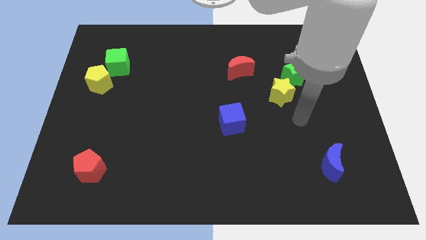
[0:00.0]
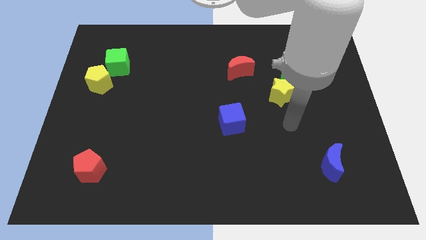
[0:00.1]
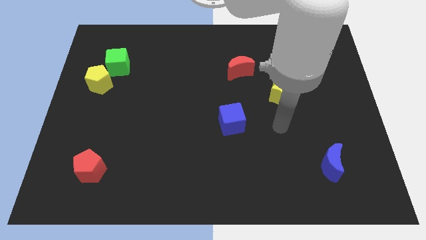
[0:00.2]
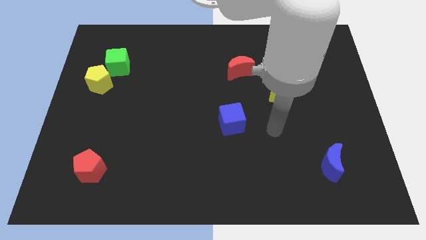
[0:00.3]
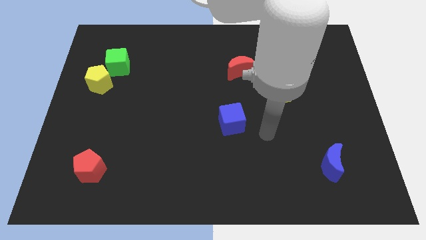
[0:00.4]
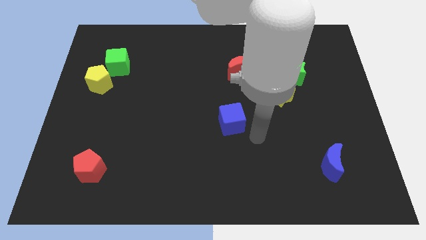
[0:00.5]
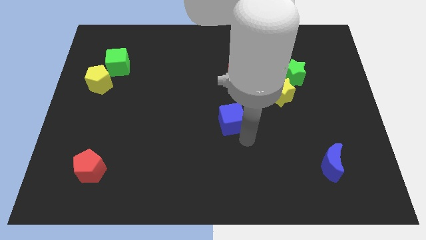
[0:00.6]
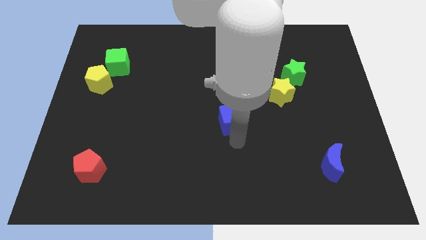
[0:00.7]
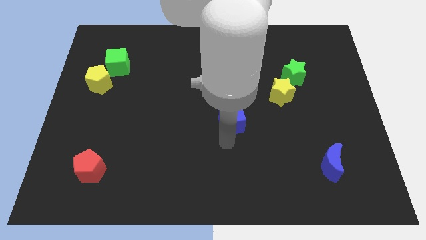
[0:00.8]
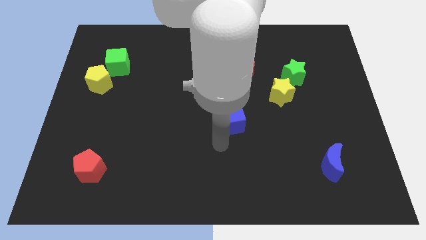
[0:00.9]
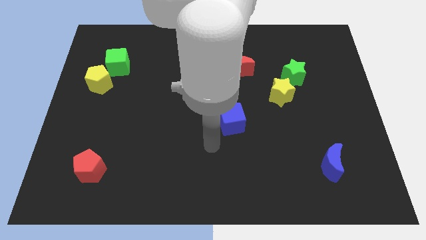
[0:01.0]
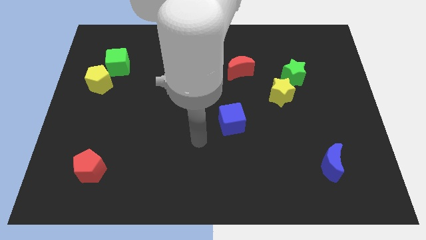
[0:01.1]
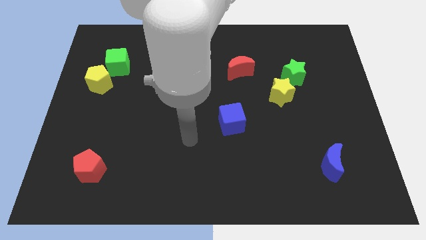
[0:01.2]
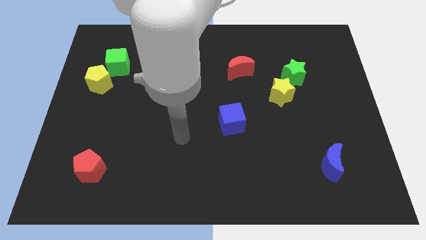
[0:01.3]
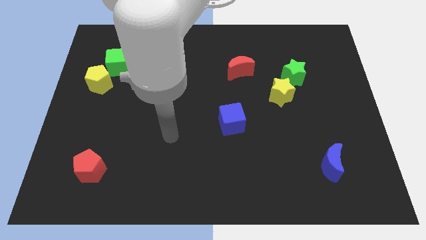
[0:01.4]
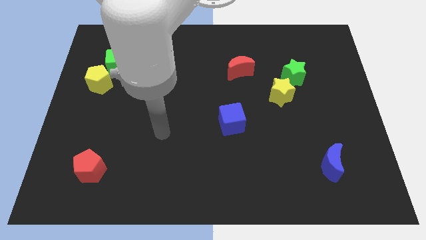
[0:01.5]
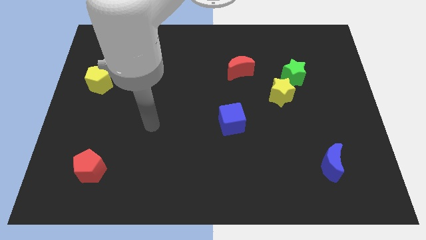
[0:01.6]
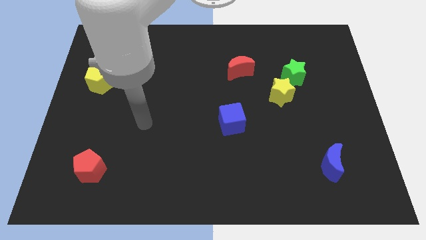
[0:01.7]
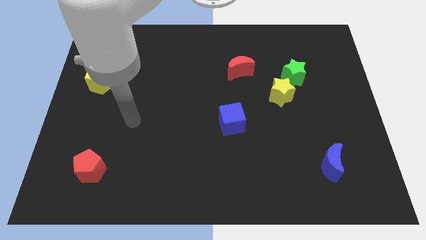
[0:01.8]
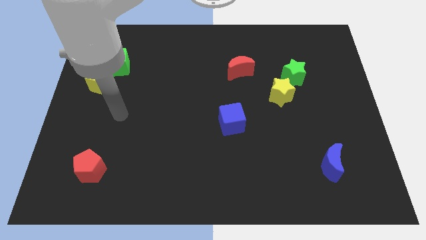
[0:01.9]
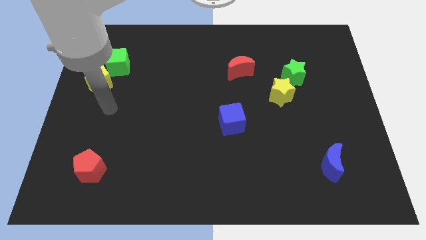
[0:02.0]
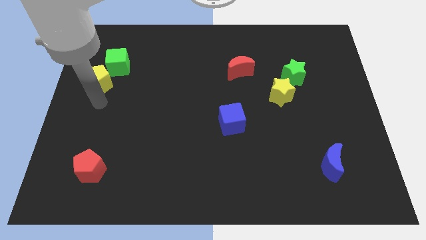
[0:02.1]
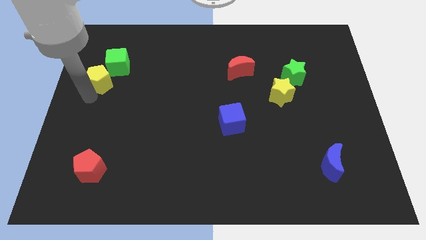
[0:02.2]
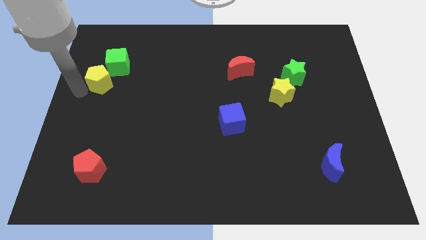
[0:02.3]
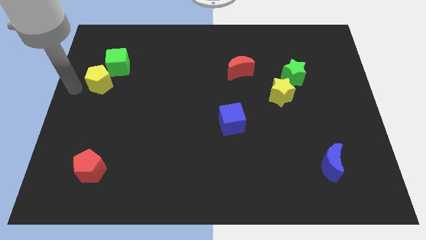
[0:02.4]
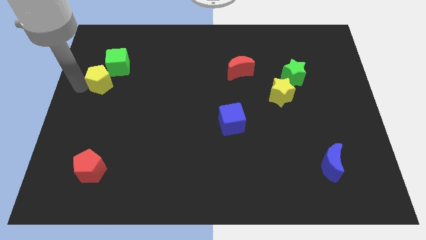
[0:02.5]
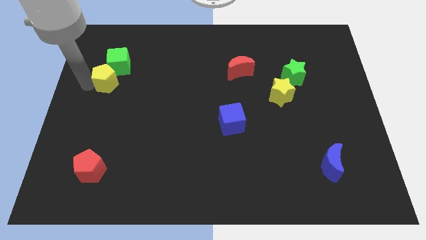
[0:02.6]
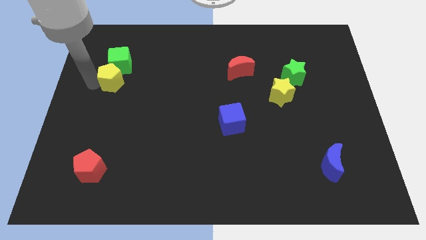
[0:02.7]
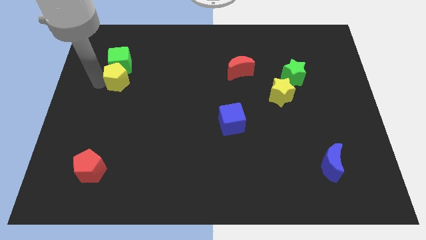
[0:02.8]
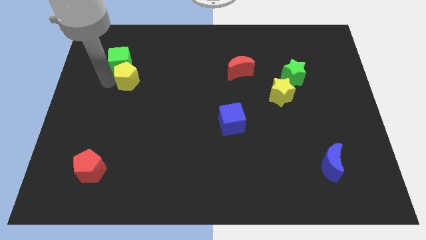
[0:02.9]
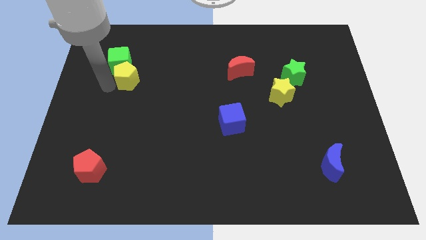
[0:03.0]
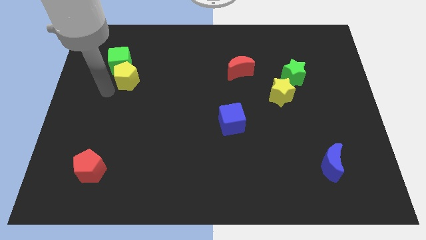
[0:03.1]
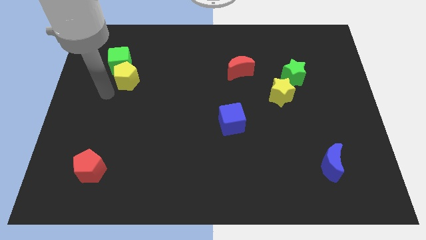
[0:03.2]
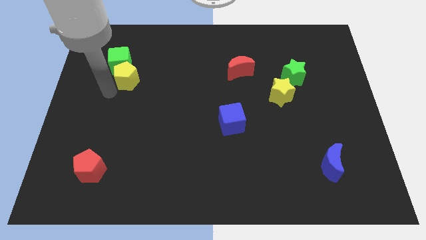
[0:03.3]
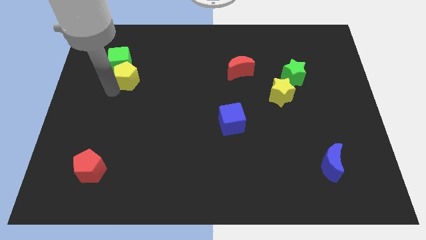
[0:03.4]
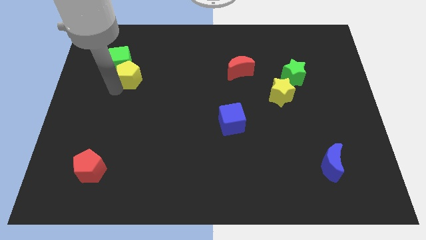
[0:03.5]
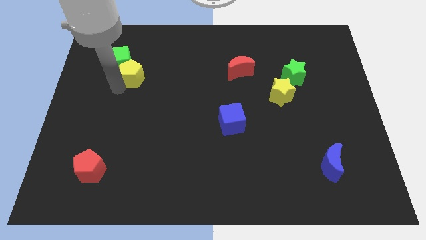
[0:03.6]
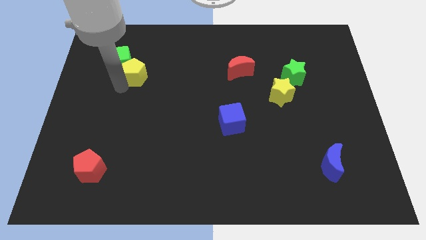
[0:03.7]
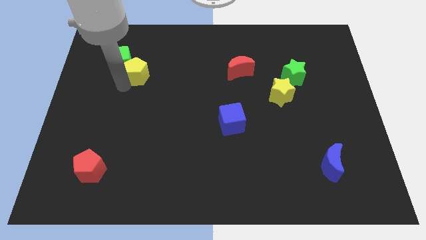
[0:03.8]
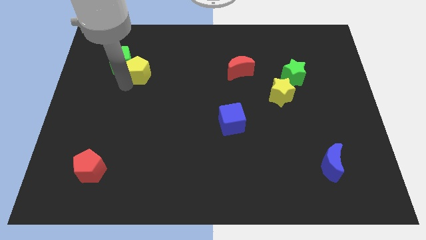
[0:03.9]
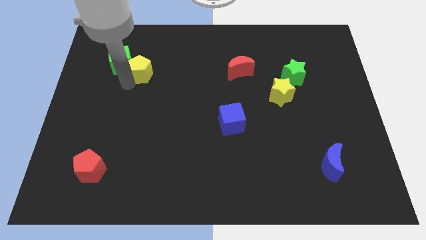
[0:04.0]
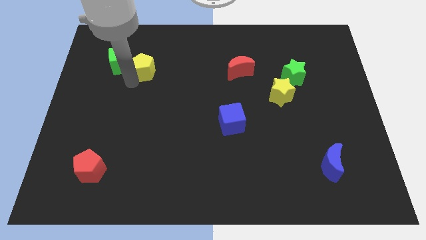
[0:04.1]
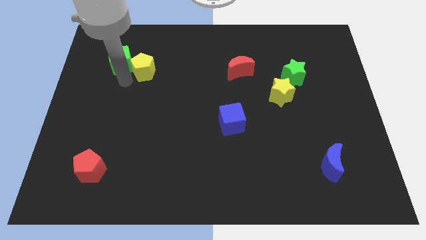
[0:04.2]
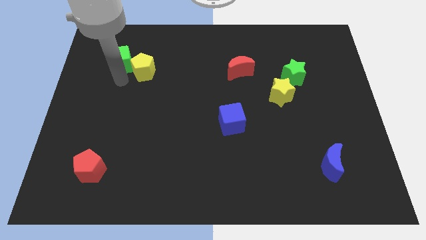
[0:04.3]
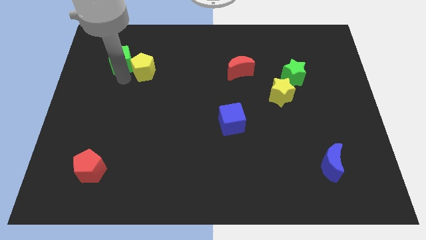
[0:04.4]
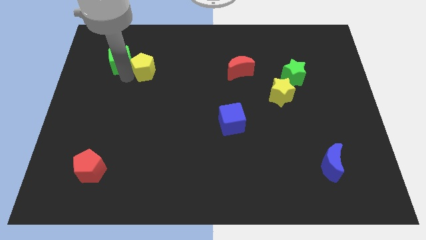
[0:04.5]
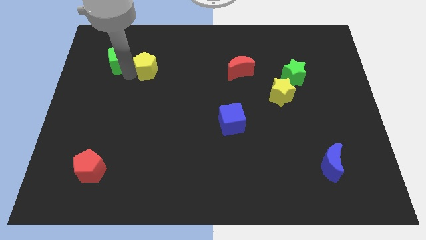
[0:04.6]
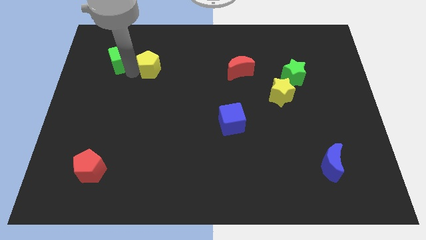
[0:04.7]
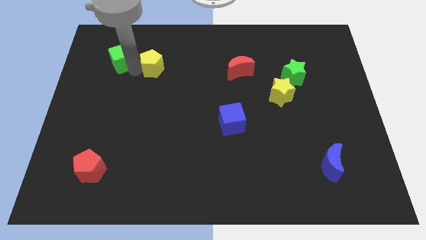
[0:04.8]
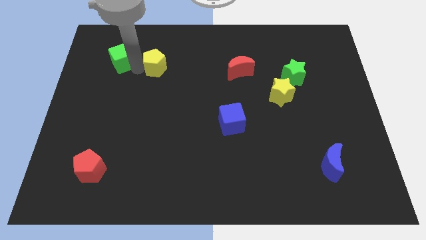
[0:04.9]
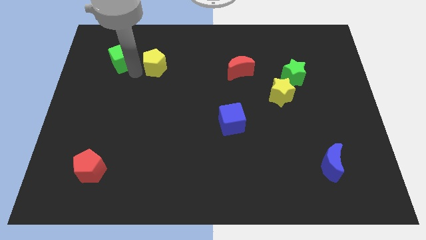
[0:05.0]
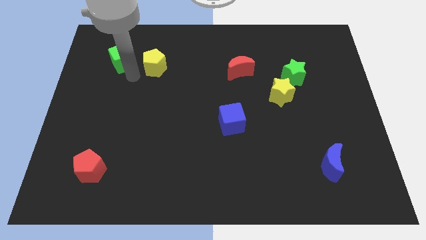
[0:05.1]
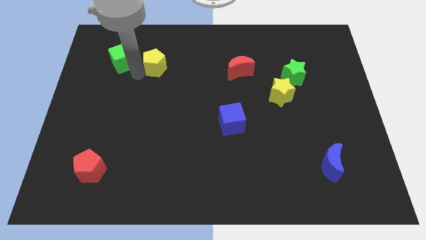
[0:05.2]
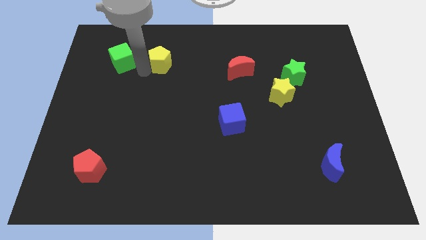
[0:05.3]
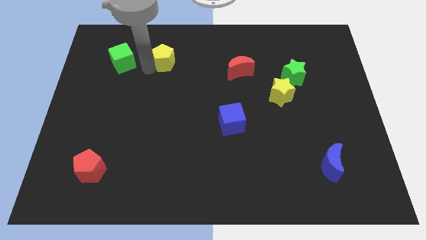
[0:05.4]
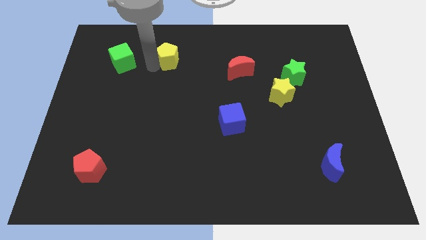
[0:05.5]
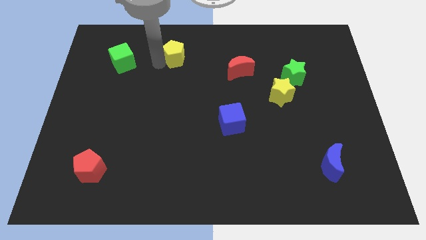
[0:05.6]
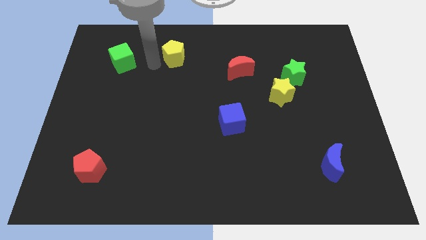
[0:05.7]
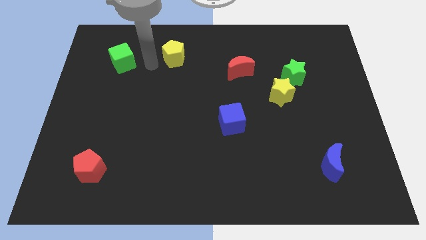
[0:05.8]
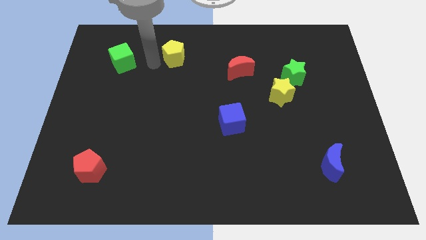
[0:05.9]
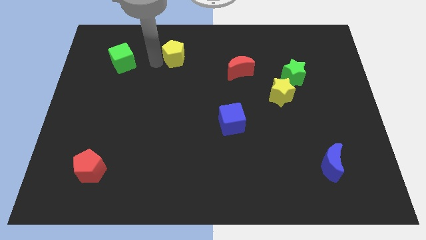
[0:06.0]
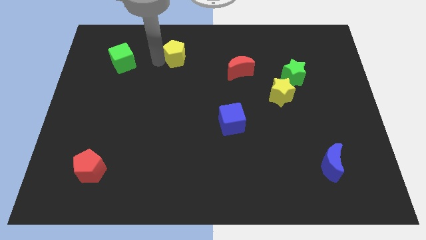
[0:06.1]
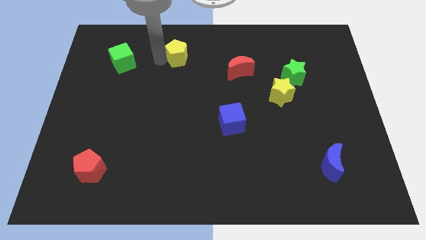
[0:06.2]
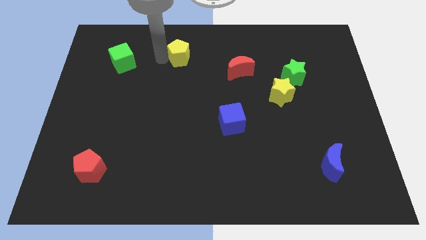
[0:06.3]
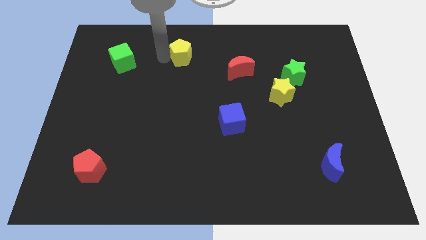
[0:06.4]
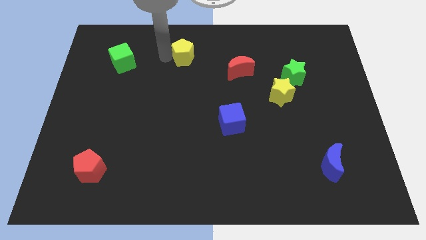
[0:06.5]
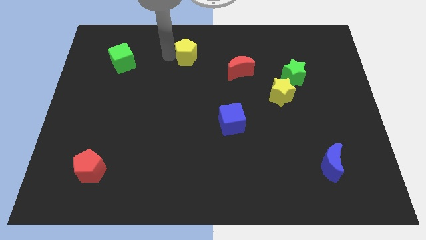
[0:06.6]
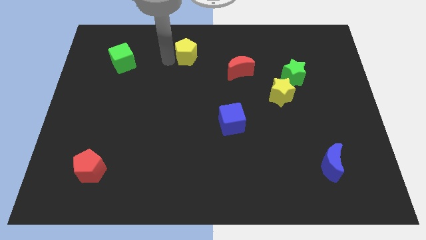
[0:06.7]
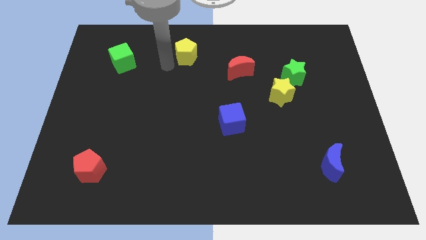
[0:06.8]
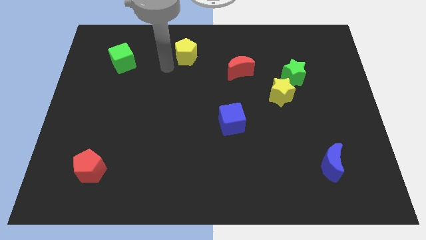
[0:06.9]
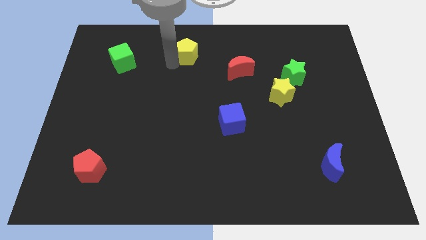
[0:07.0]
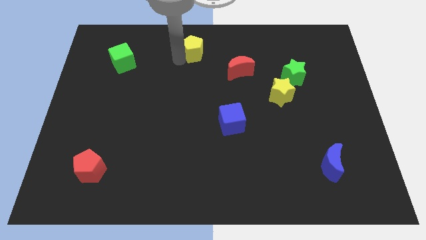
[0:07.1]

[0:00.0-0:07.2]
push the yellow pentagon to the towards your base
